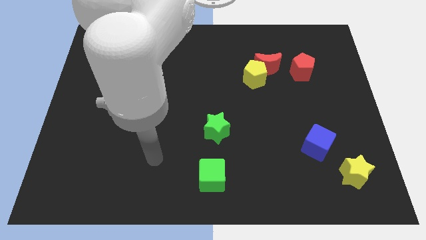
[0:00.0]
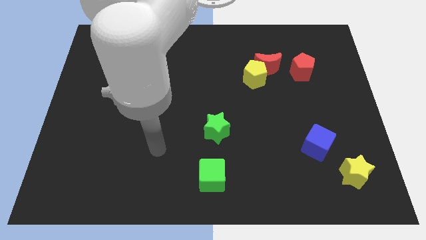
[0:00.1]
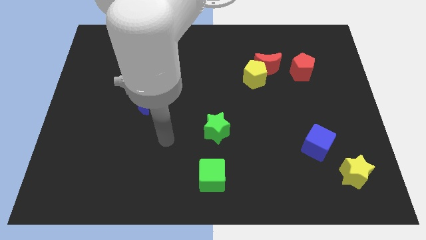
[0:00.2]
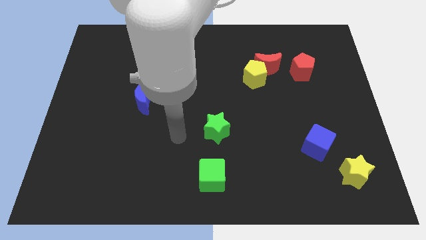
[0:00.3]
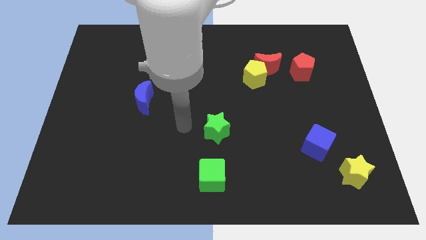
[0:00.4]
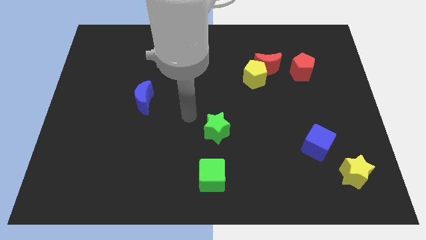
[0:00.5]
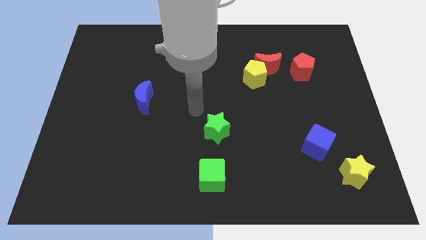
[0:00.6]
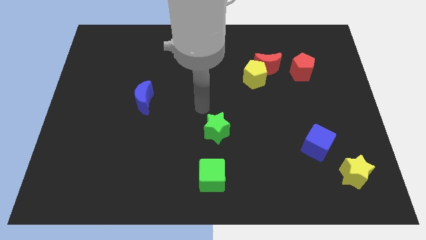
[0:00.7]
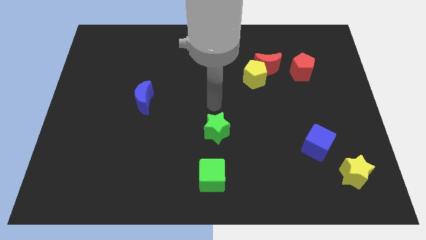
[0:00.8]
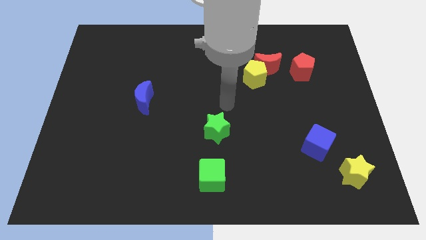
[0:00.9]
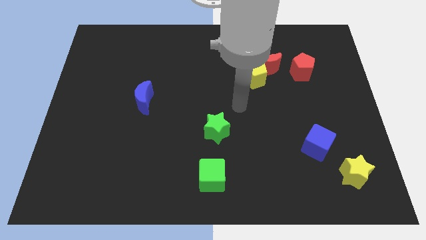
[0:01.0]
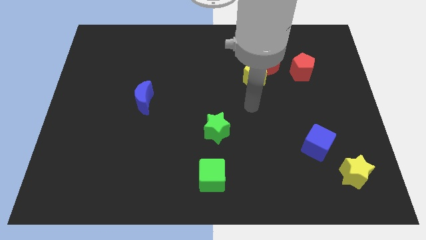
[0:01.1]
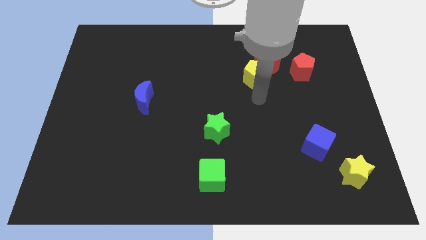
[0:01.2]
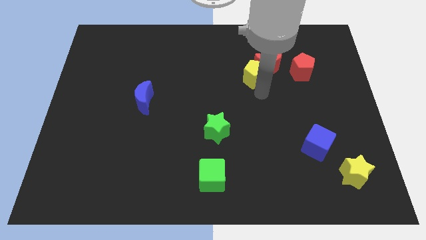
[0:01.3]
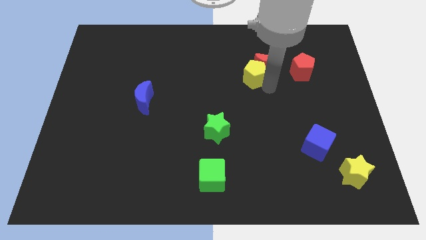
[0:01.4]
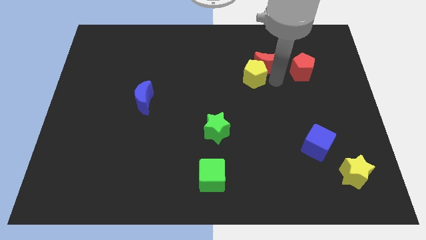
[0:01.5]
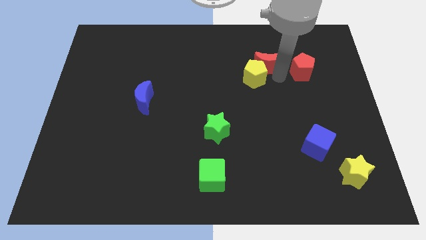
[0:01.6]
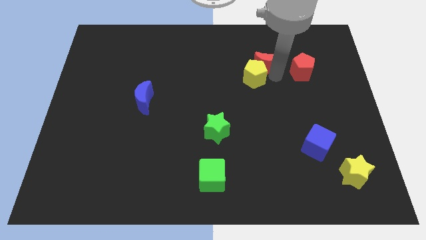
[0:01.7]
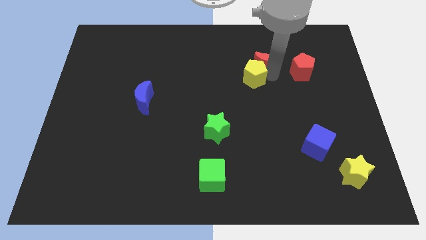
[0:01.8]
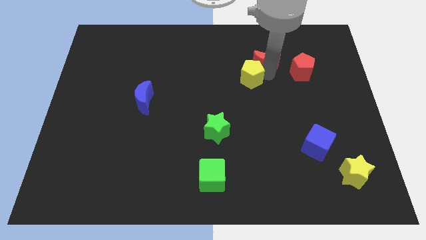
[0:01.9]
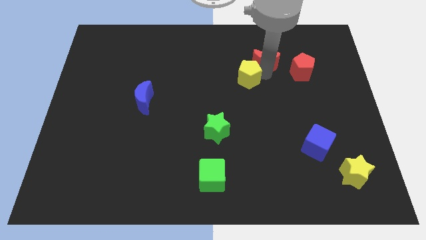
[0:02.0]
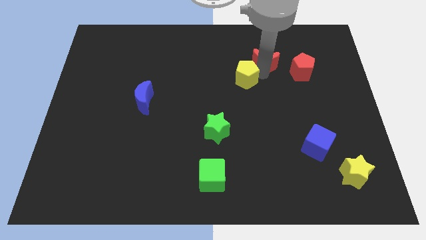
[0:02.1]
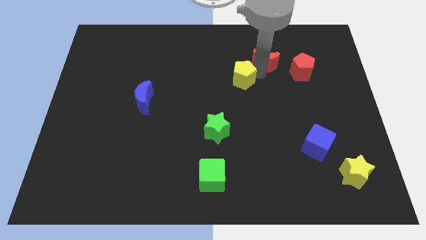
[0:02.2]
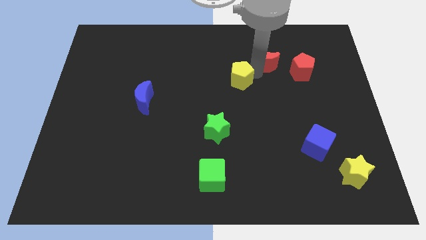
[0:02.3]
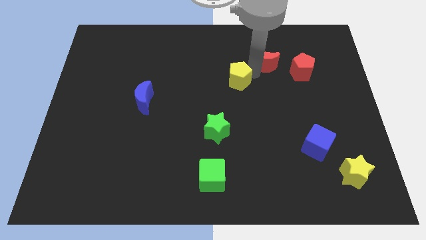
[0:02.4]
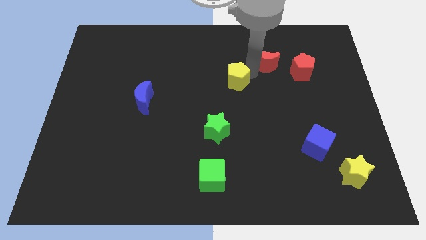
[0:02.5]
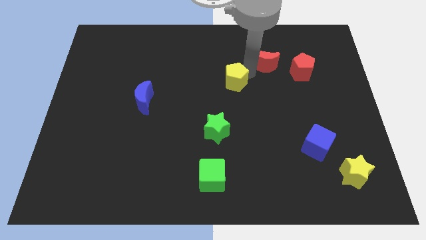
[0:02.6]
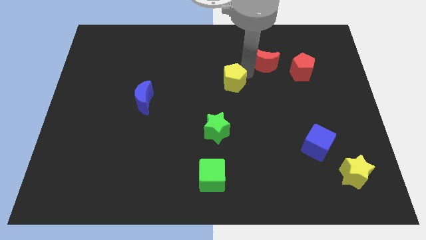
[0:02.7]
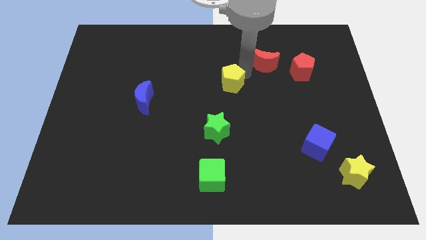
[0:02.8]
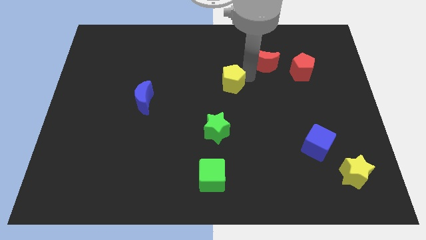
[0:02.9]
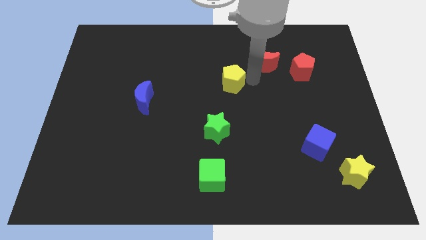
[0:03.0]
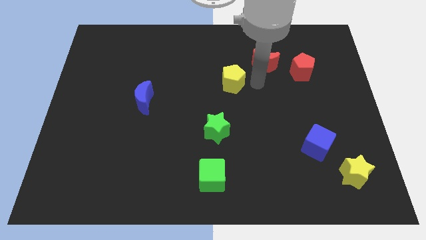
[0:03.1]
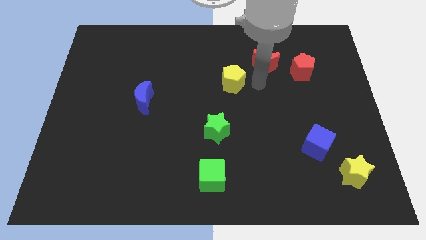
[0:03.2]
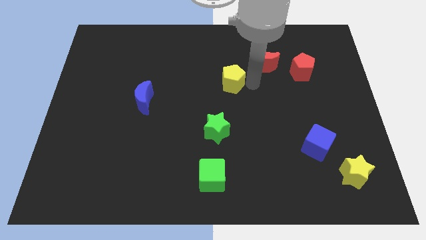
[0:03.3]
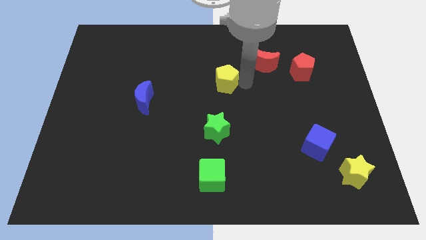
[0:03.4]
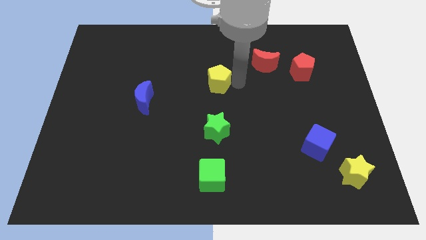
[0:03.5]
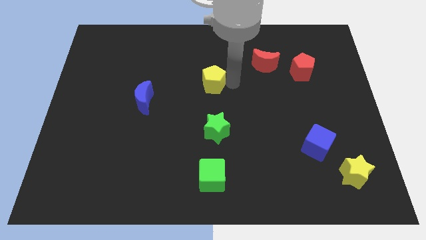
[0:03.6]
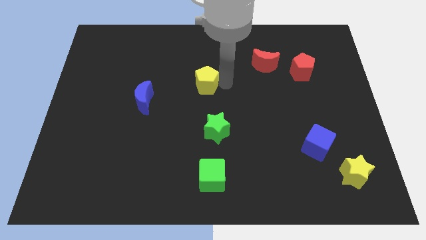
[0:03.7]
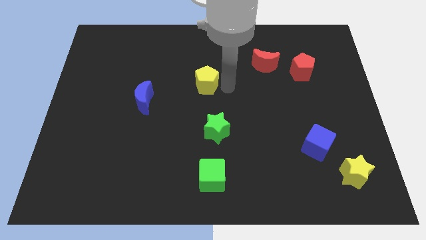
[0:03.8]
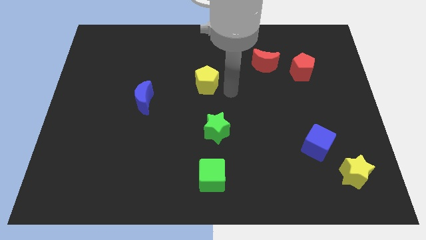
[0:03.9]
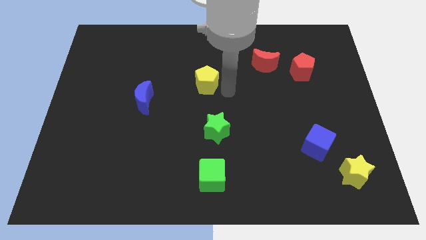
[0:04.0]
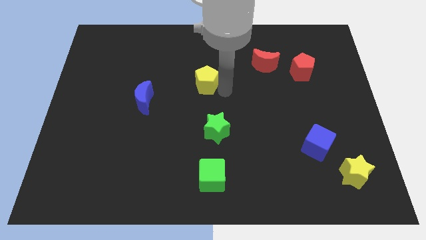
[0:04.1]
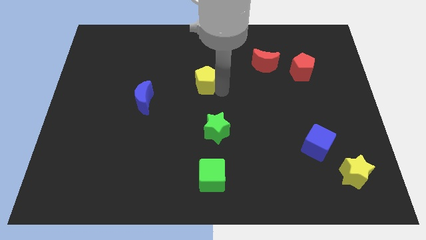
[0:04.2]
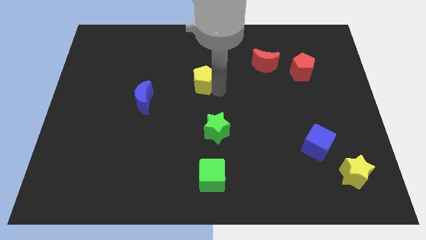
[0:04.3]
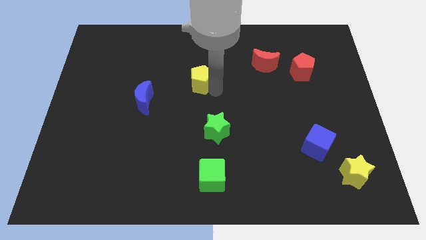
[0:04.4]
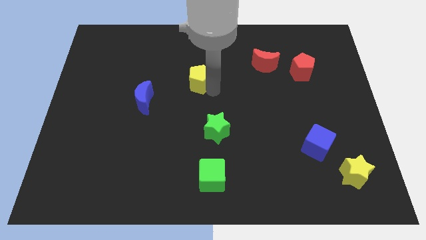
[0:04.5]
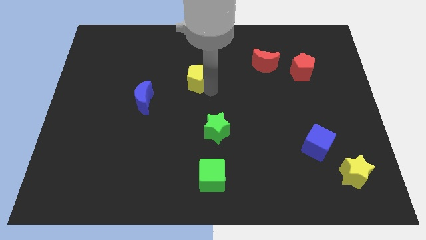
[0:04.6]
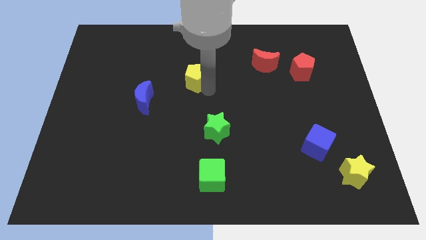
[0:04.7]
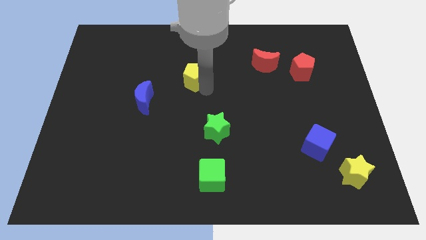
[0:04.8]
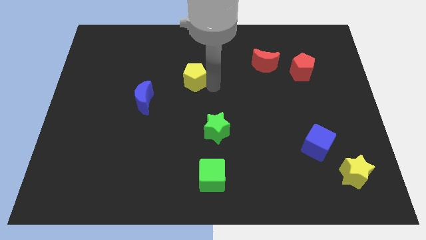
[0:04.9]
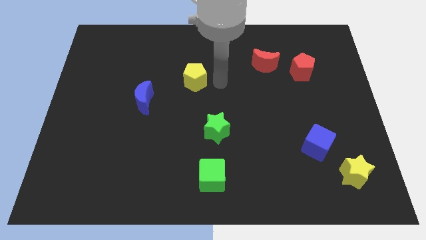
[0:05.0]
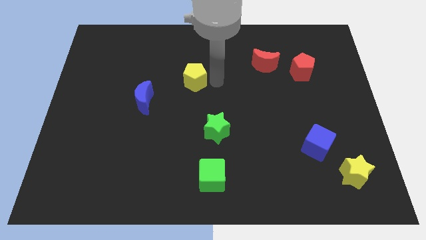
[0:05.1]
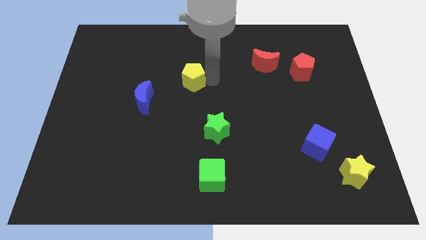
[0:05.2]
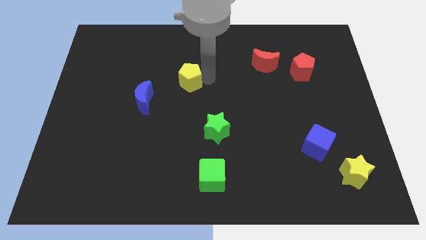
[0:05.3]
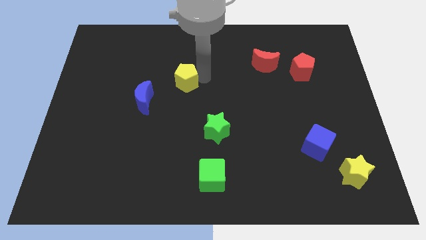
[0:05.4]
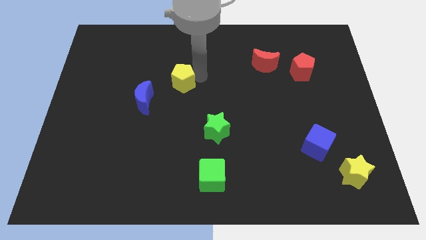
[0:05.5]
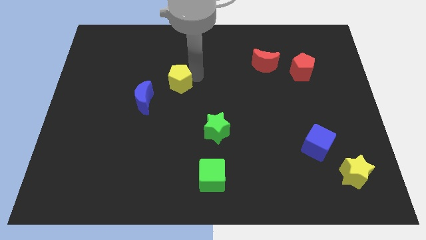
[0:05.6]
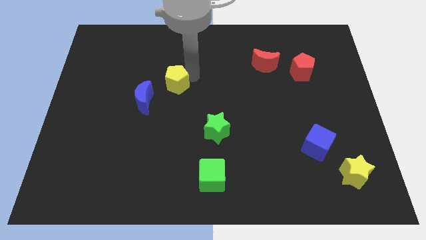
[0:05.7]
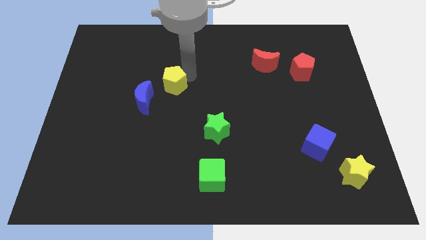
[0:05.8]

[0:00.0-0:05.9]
slide the yellow pentagon to the left

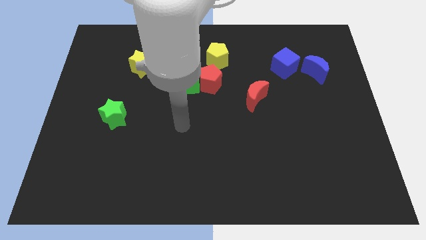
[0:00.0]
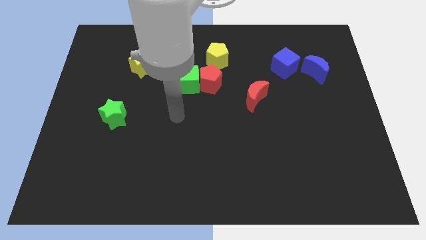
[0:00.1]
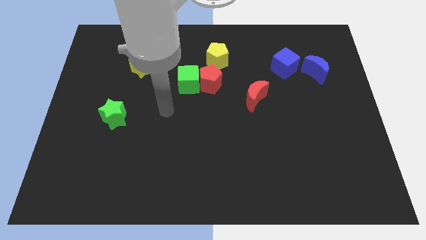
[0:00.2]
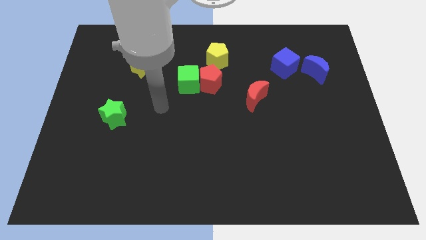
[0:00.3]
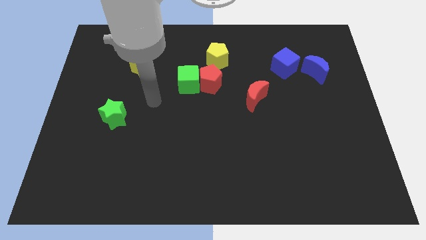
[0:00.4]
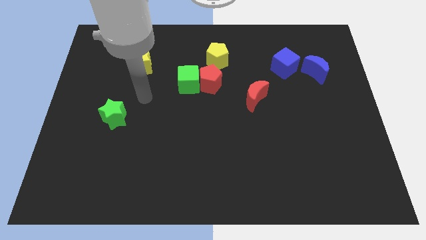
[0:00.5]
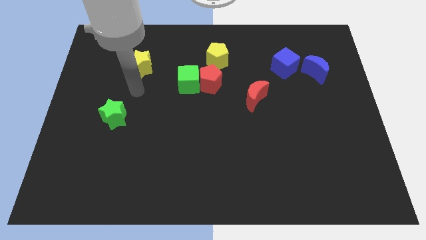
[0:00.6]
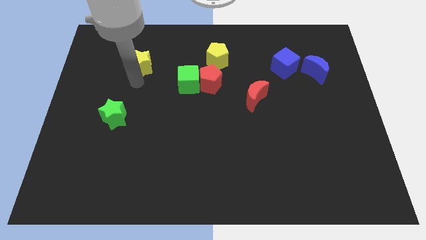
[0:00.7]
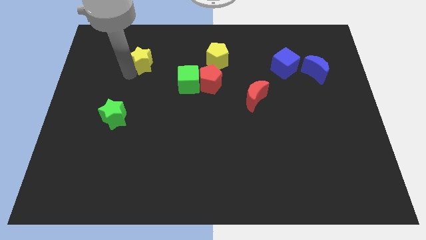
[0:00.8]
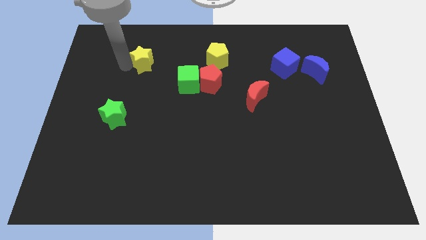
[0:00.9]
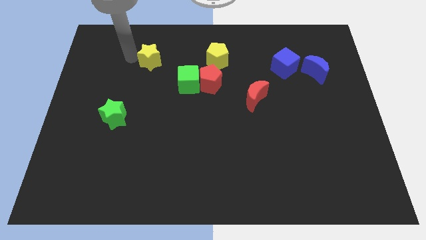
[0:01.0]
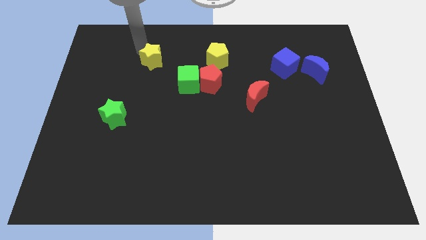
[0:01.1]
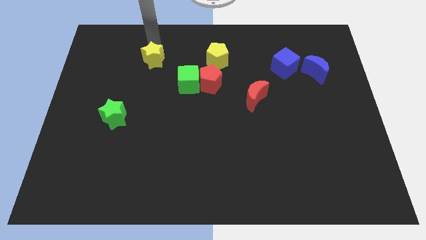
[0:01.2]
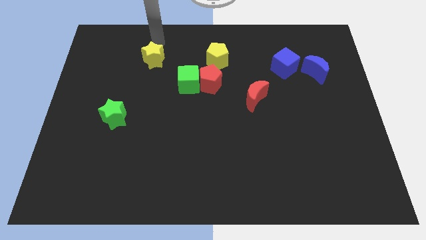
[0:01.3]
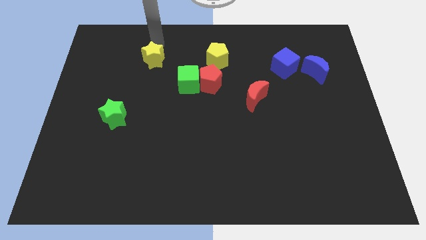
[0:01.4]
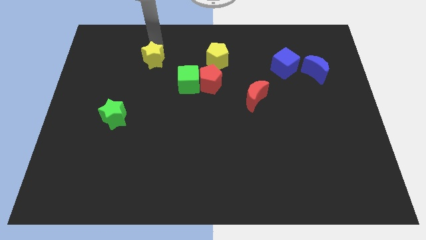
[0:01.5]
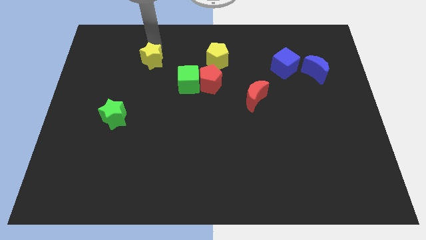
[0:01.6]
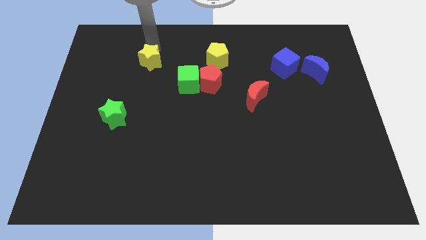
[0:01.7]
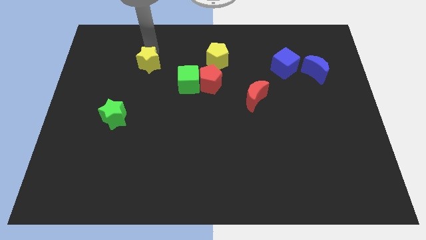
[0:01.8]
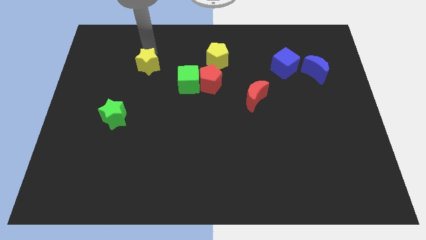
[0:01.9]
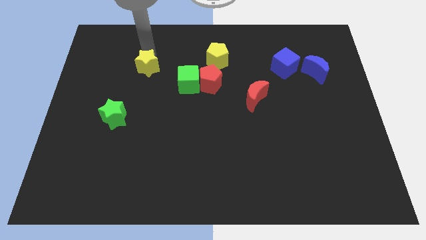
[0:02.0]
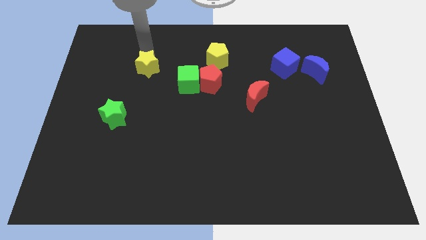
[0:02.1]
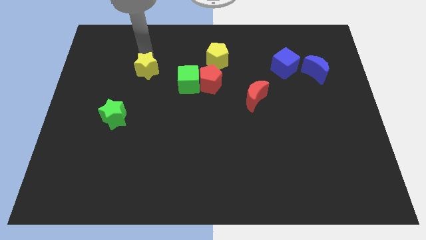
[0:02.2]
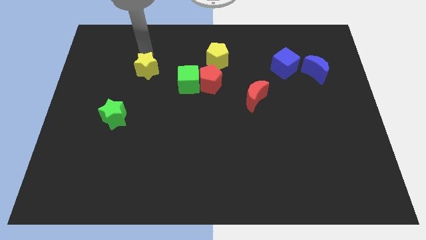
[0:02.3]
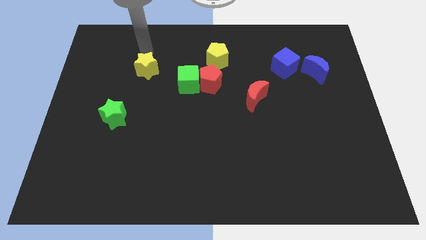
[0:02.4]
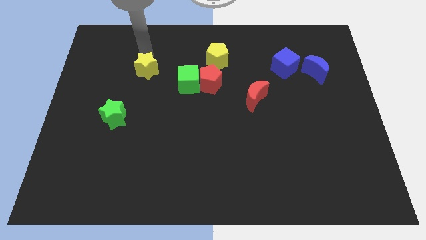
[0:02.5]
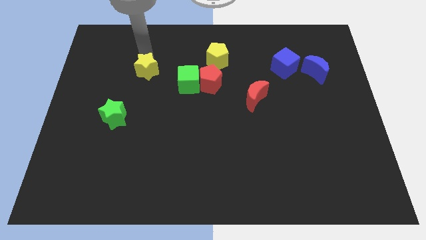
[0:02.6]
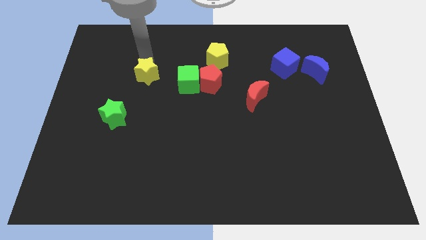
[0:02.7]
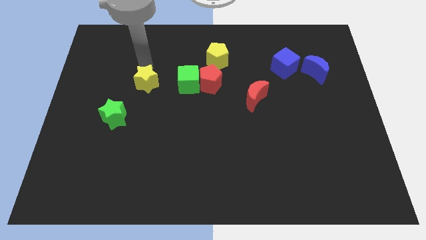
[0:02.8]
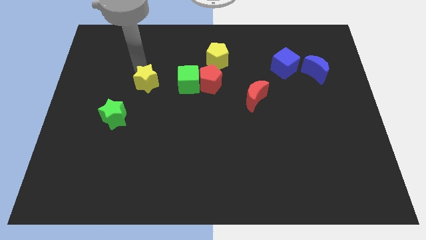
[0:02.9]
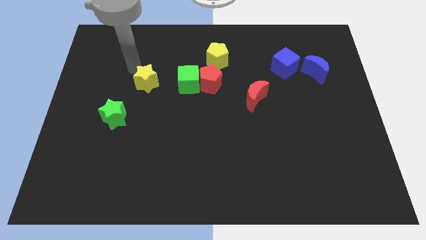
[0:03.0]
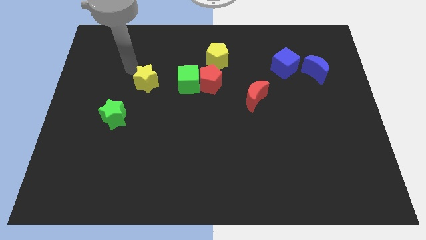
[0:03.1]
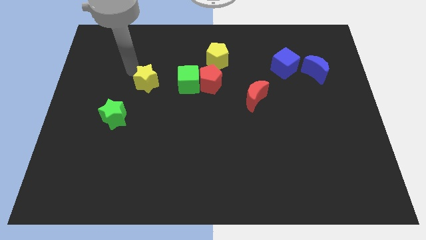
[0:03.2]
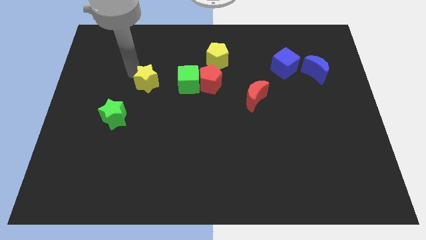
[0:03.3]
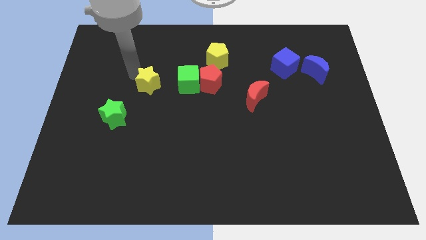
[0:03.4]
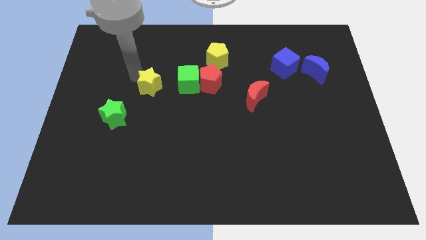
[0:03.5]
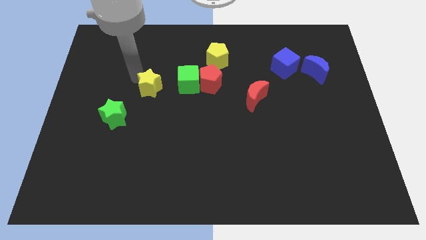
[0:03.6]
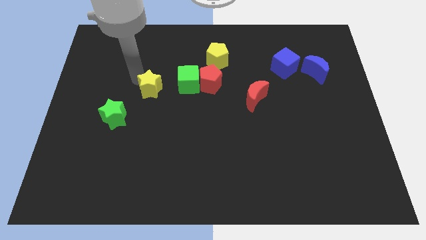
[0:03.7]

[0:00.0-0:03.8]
move the yellow star a bit diagonally down and right
